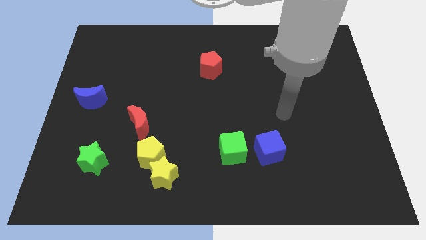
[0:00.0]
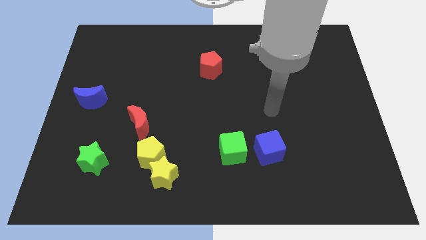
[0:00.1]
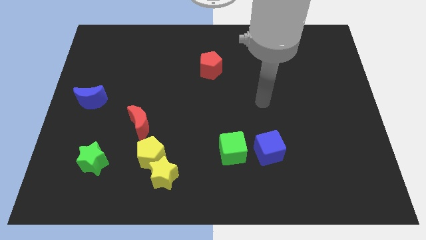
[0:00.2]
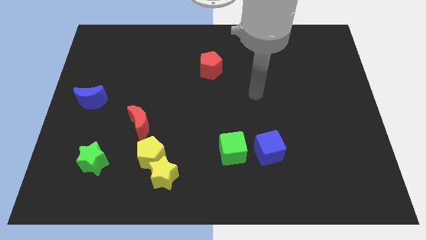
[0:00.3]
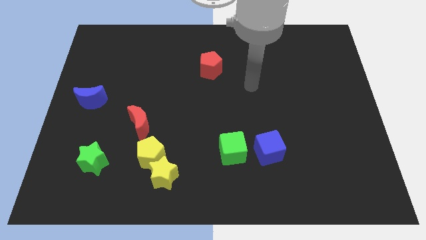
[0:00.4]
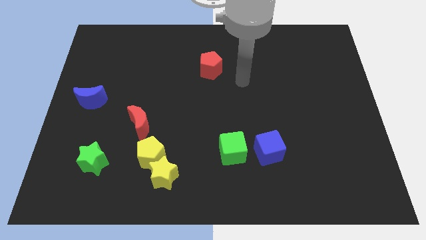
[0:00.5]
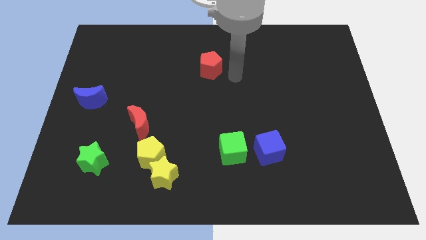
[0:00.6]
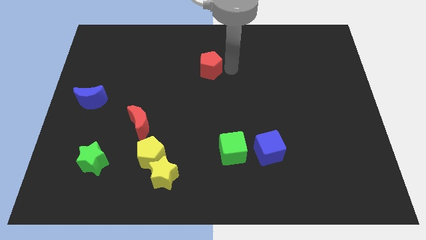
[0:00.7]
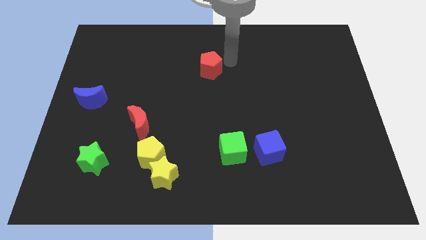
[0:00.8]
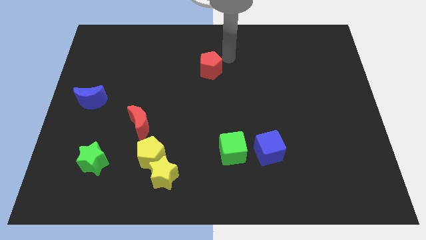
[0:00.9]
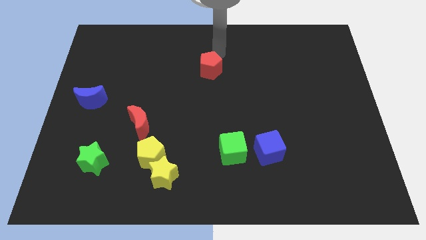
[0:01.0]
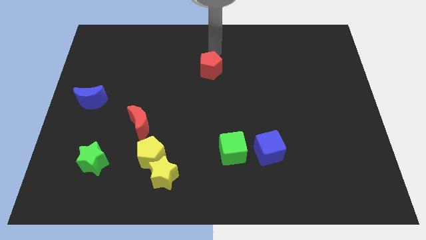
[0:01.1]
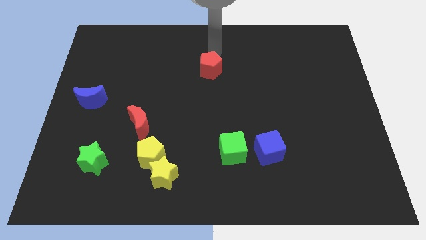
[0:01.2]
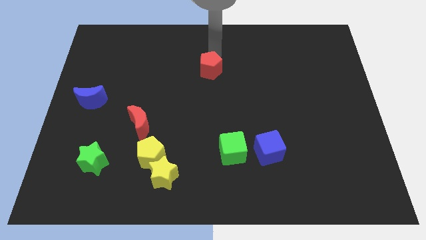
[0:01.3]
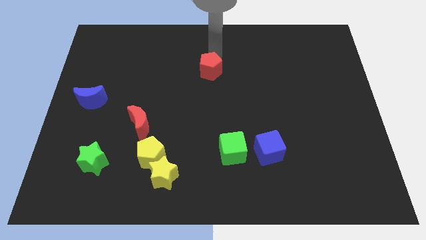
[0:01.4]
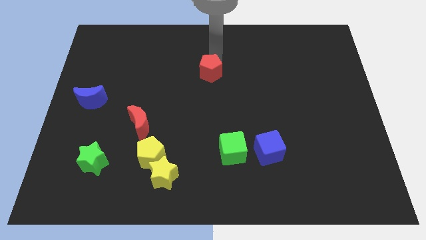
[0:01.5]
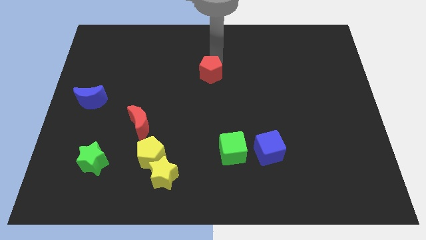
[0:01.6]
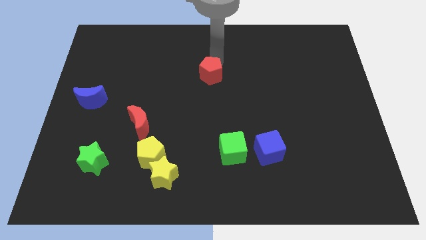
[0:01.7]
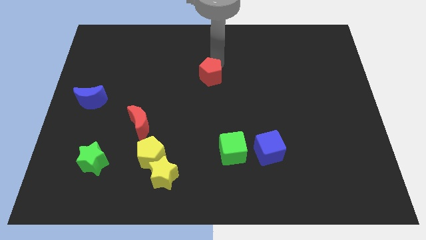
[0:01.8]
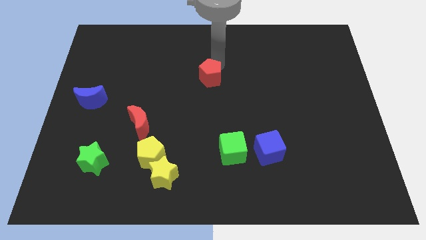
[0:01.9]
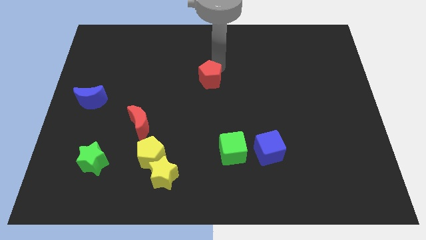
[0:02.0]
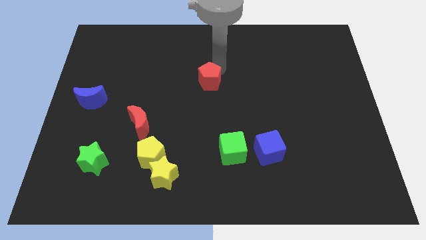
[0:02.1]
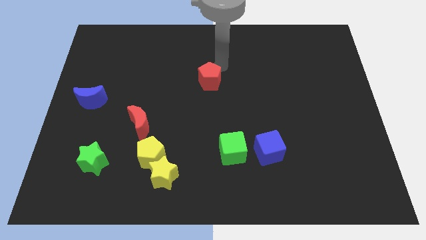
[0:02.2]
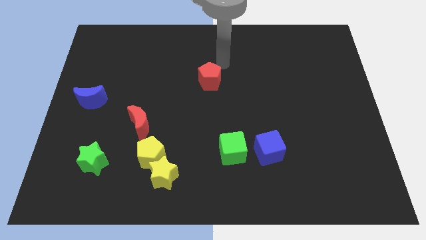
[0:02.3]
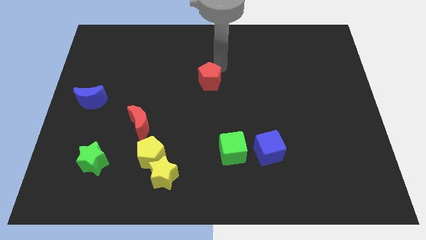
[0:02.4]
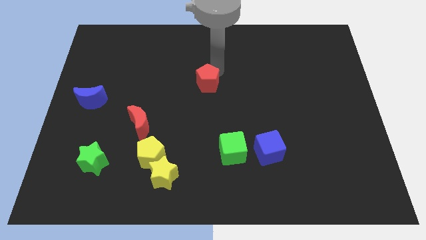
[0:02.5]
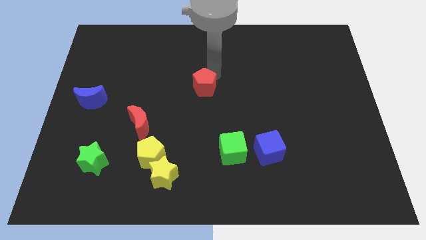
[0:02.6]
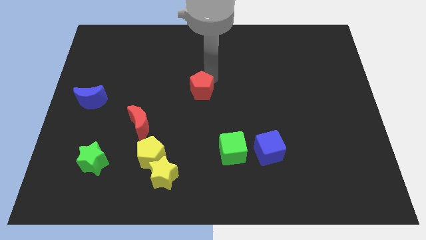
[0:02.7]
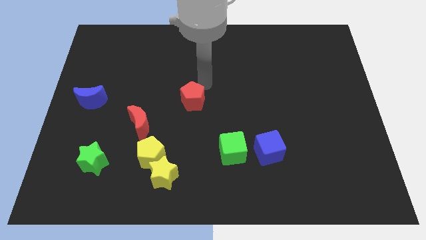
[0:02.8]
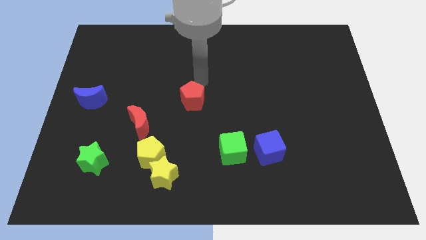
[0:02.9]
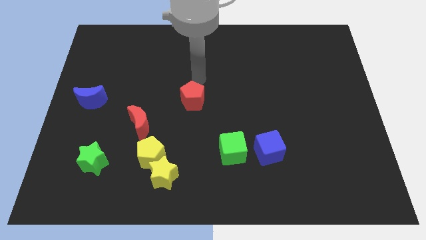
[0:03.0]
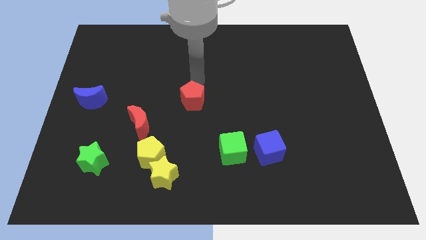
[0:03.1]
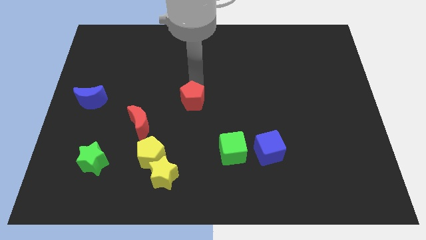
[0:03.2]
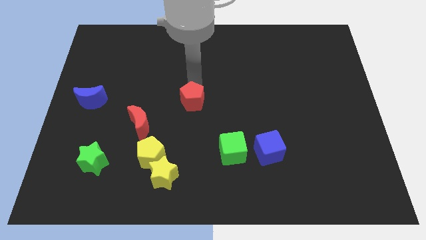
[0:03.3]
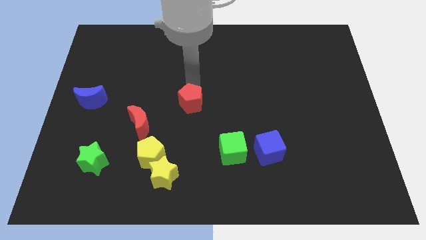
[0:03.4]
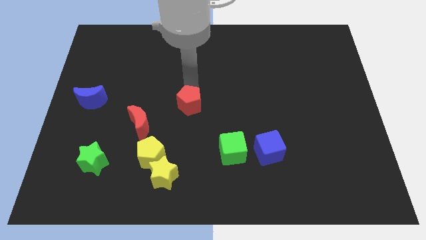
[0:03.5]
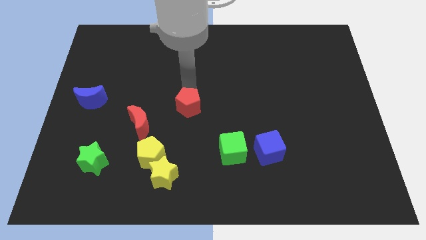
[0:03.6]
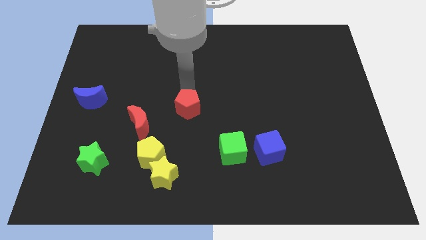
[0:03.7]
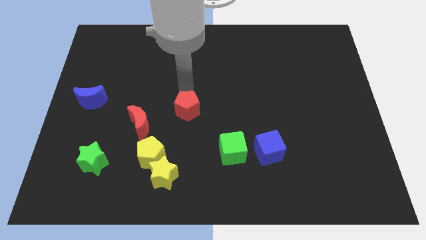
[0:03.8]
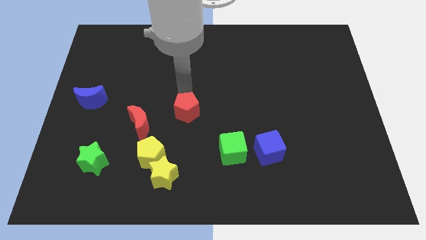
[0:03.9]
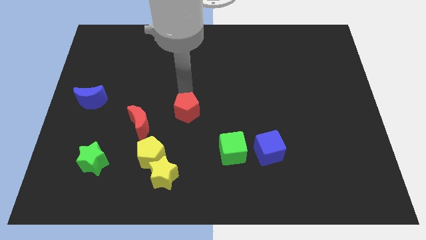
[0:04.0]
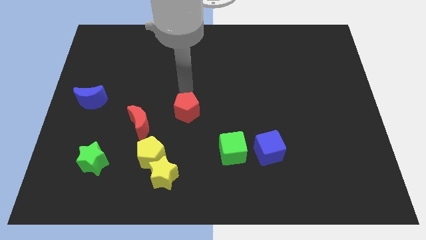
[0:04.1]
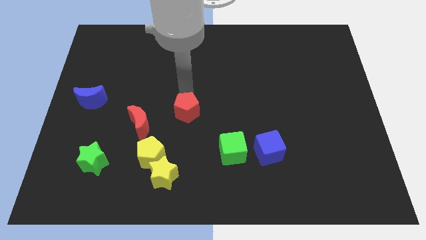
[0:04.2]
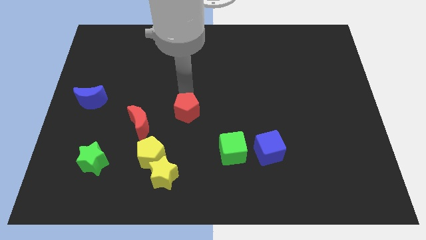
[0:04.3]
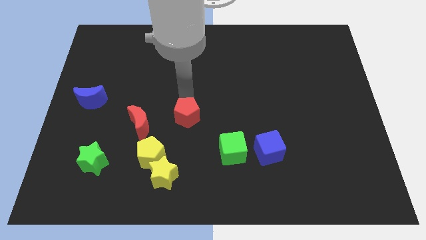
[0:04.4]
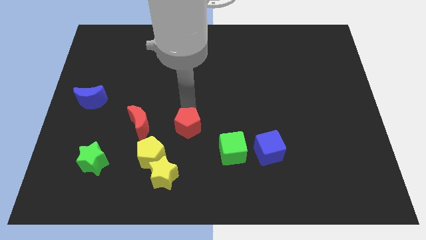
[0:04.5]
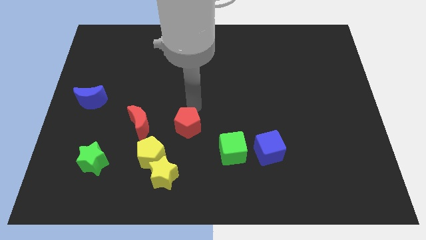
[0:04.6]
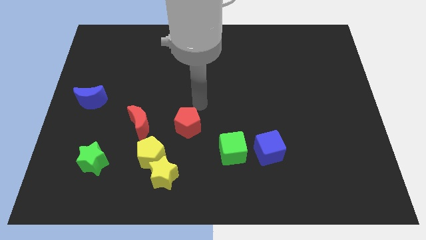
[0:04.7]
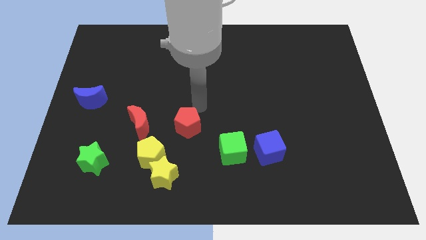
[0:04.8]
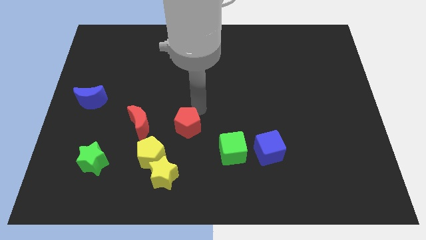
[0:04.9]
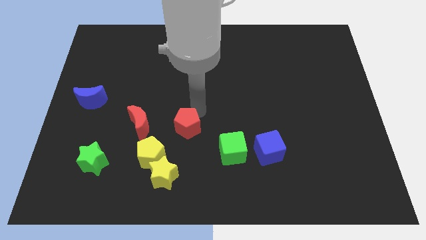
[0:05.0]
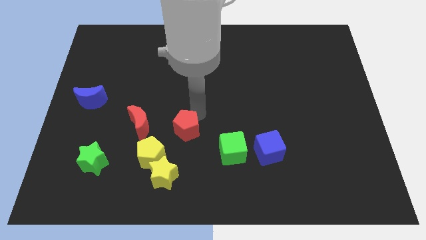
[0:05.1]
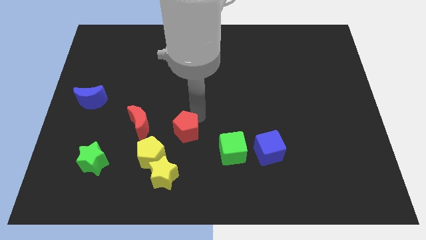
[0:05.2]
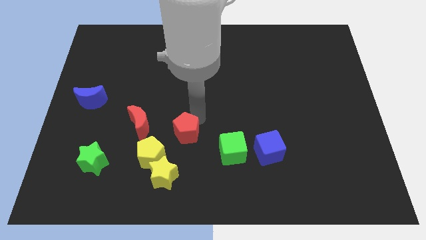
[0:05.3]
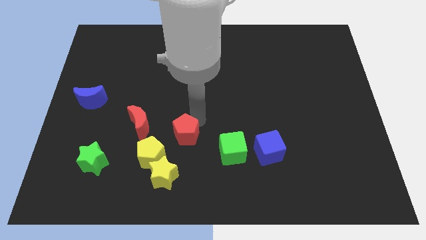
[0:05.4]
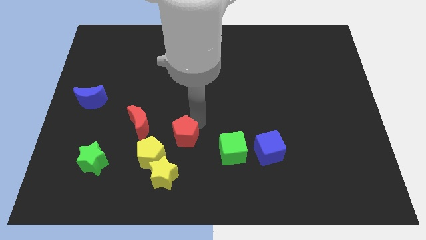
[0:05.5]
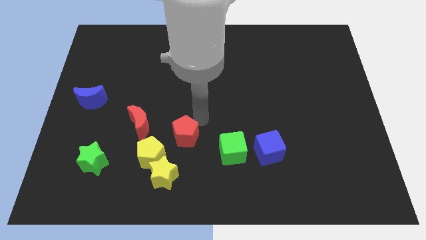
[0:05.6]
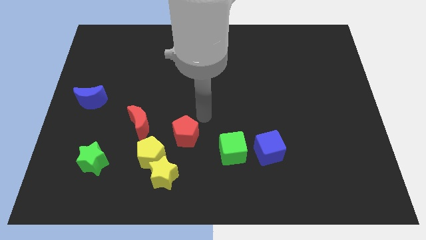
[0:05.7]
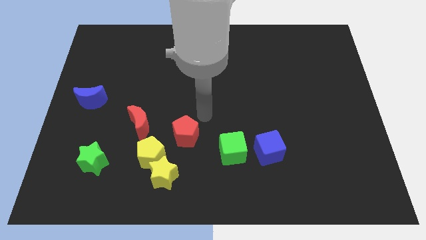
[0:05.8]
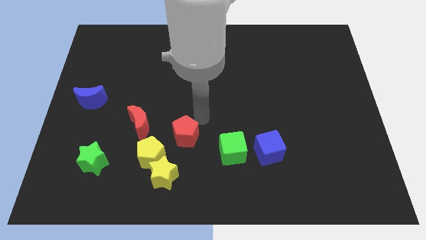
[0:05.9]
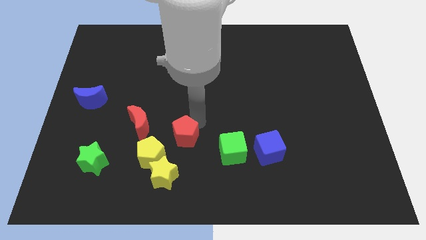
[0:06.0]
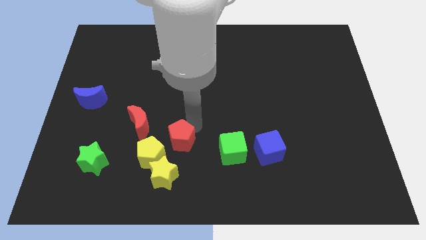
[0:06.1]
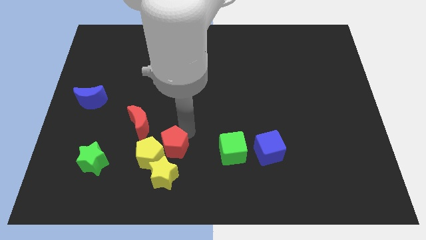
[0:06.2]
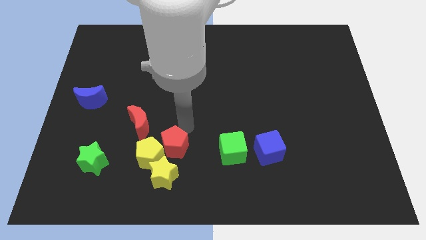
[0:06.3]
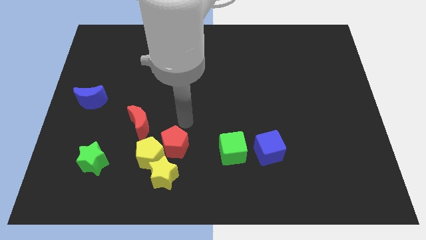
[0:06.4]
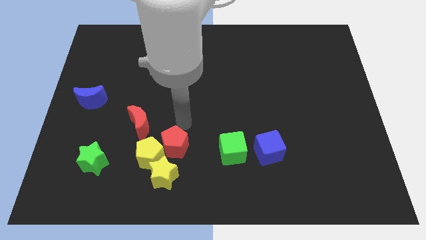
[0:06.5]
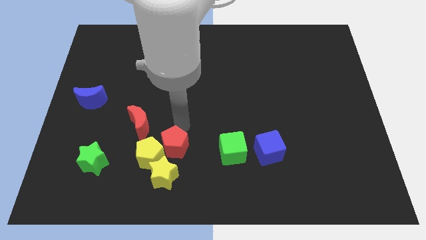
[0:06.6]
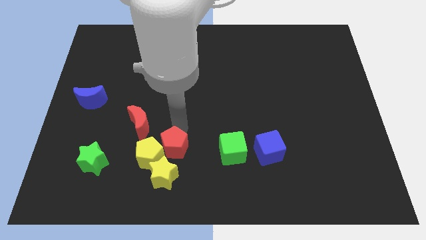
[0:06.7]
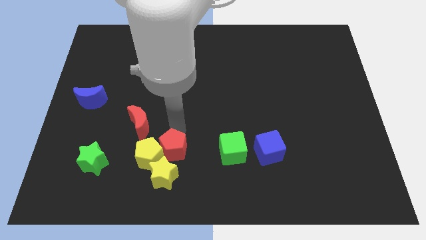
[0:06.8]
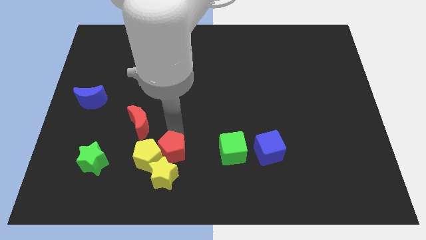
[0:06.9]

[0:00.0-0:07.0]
put the red pentagon to the yellow star
